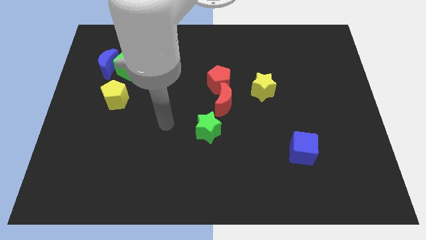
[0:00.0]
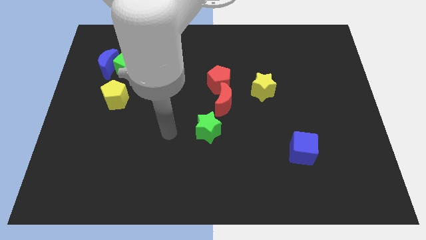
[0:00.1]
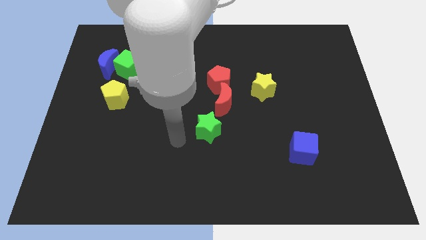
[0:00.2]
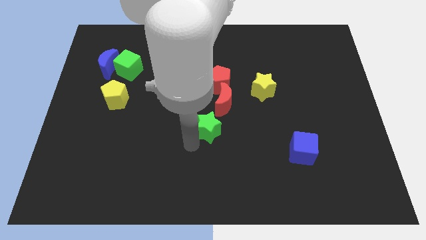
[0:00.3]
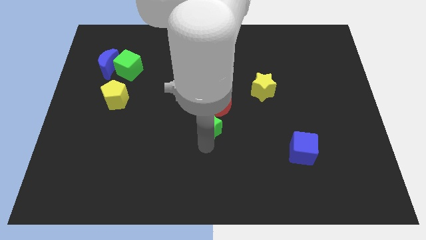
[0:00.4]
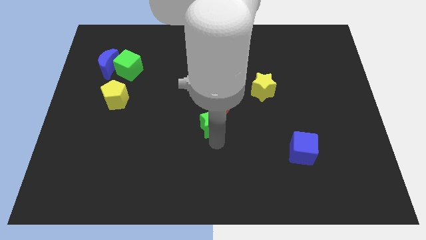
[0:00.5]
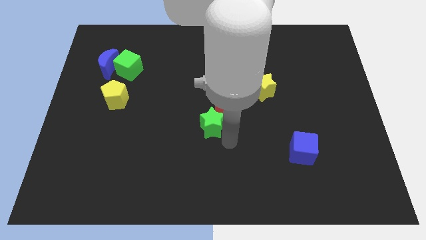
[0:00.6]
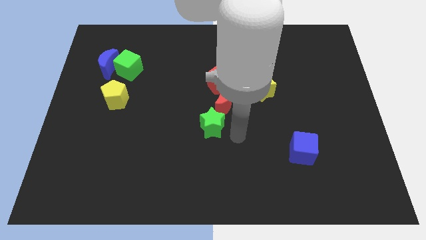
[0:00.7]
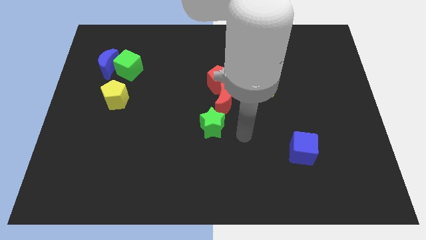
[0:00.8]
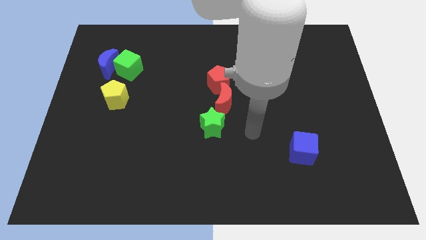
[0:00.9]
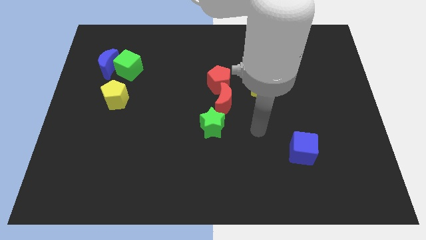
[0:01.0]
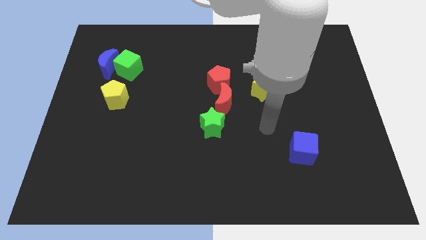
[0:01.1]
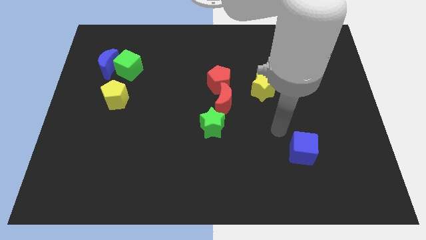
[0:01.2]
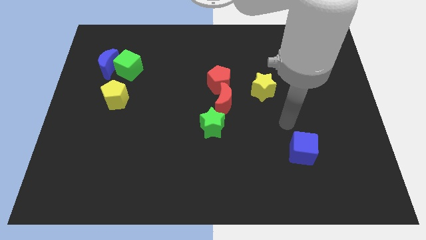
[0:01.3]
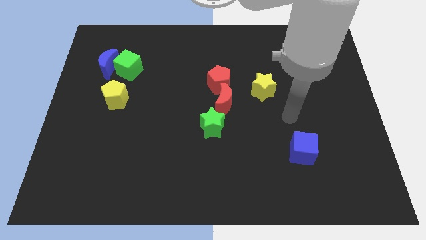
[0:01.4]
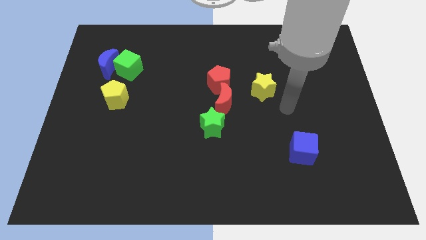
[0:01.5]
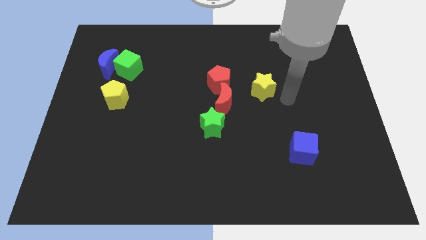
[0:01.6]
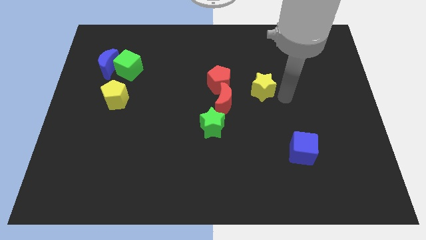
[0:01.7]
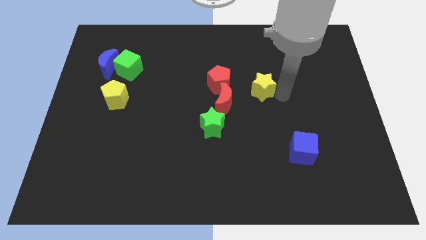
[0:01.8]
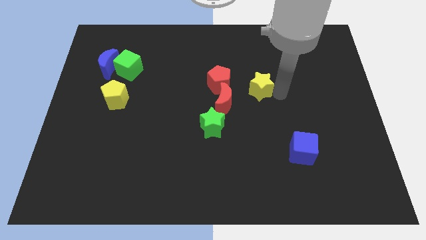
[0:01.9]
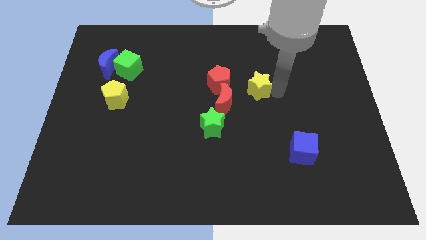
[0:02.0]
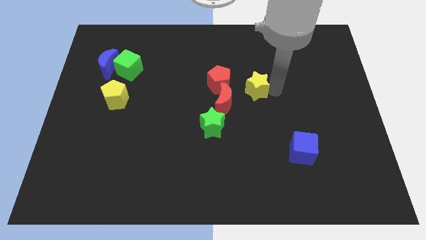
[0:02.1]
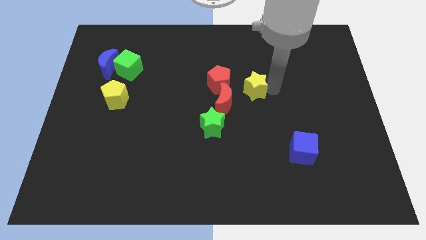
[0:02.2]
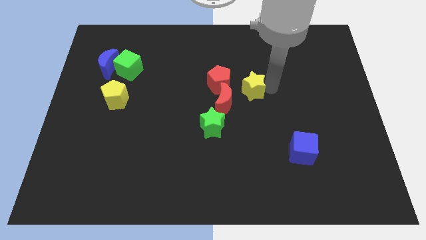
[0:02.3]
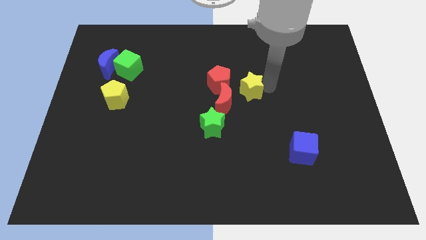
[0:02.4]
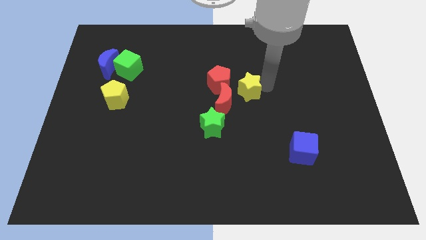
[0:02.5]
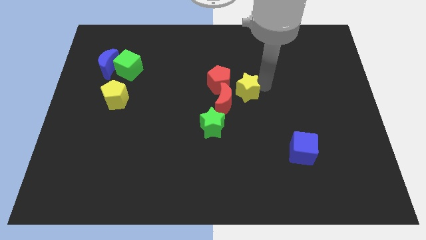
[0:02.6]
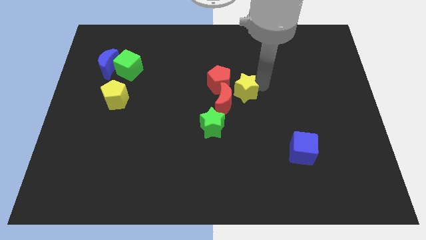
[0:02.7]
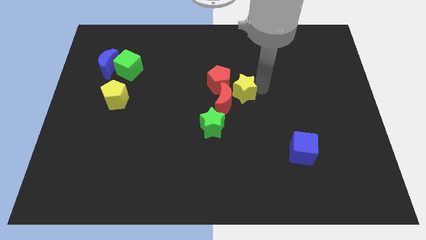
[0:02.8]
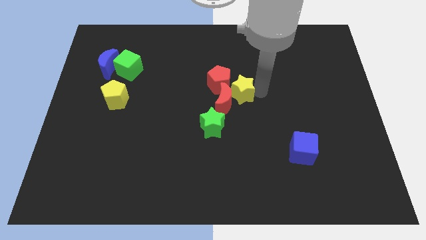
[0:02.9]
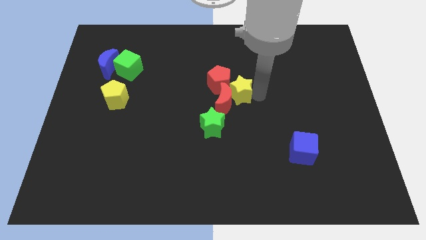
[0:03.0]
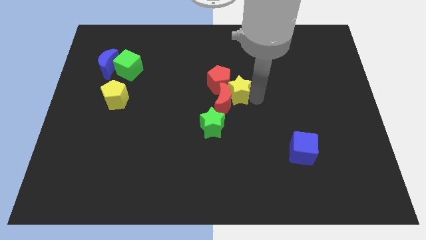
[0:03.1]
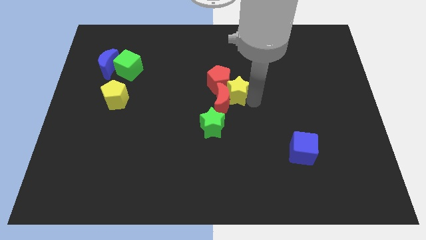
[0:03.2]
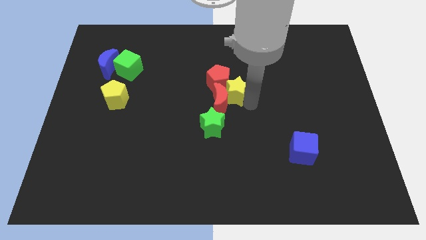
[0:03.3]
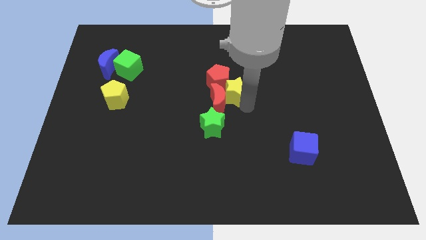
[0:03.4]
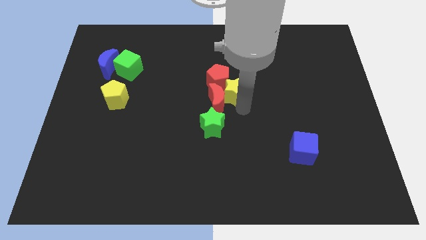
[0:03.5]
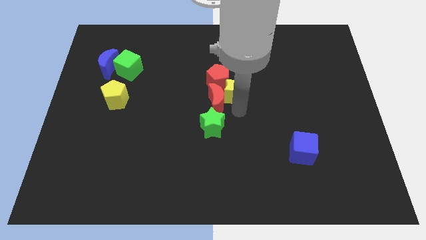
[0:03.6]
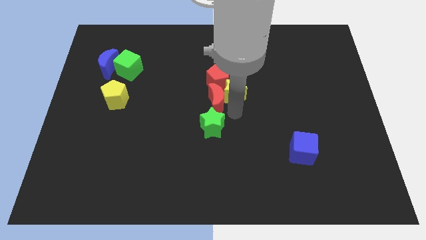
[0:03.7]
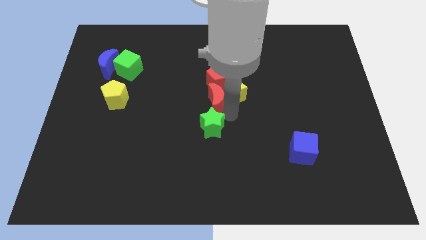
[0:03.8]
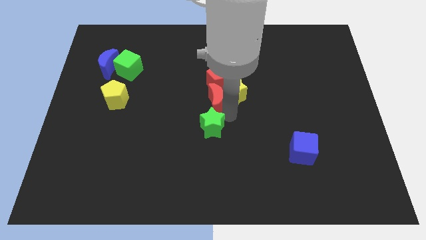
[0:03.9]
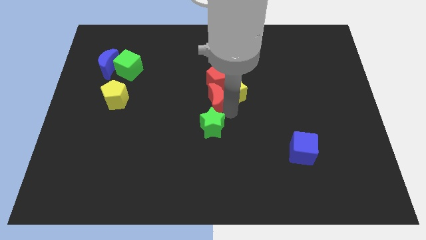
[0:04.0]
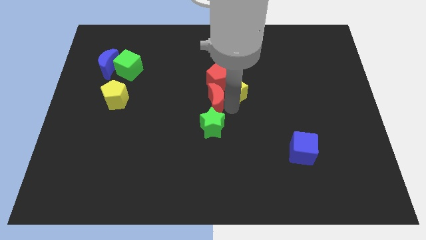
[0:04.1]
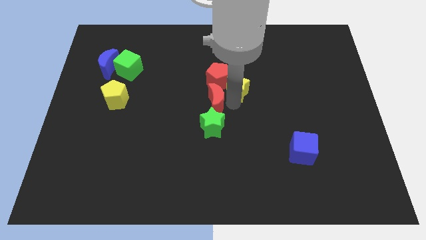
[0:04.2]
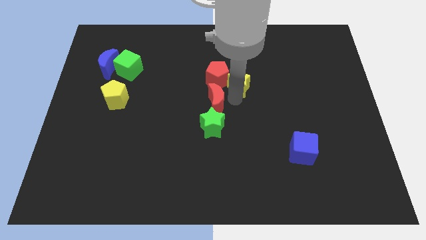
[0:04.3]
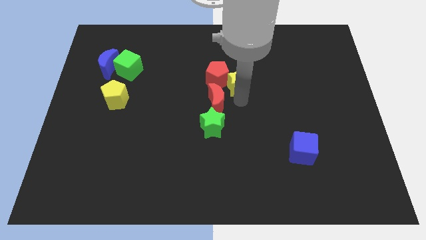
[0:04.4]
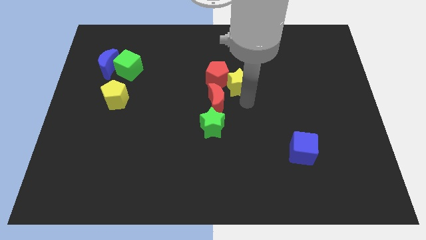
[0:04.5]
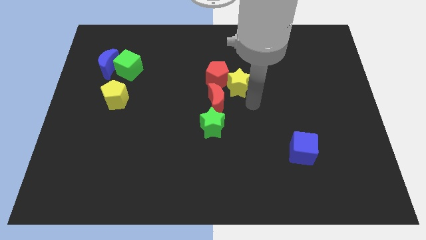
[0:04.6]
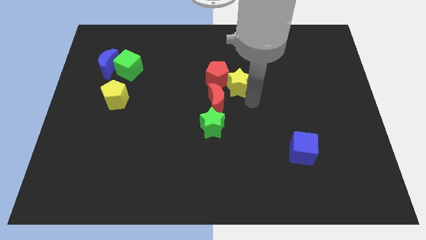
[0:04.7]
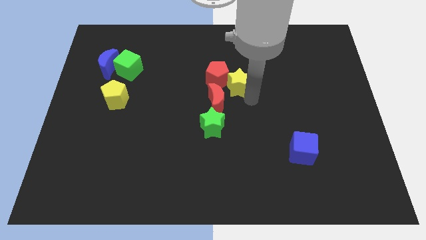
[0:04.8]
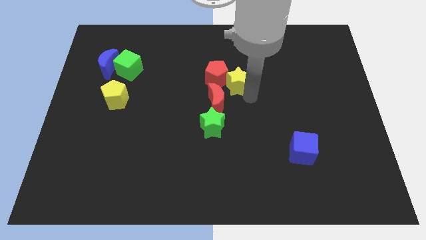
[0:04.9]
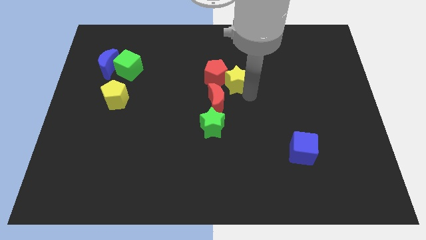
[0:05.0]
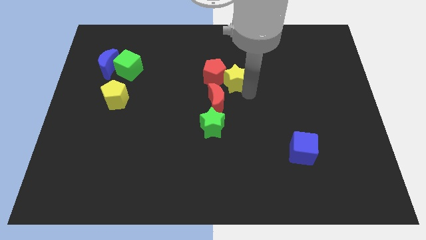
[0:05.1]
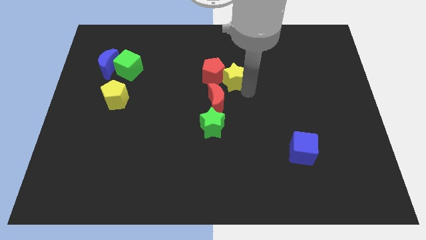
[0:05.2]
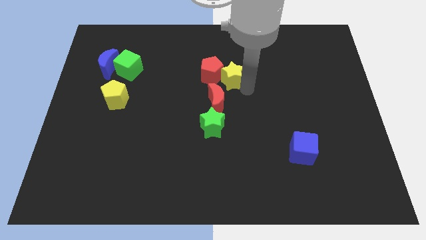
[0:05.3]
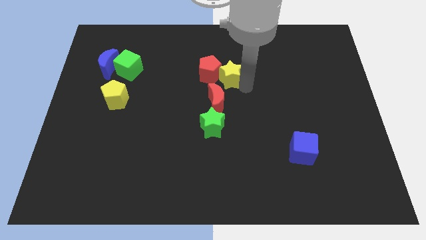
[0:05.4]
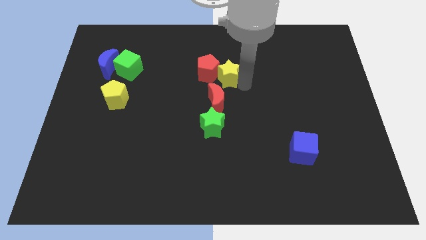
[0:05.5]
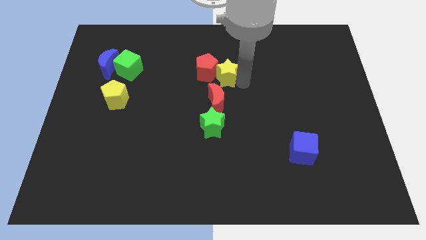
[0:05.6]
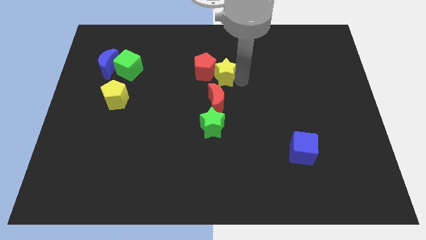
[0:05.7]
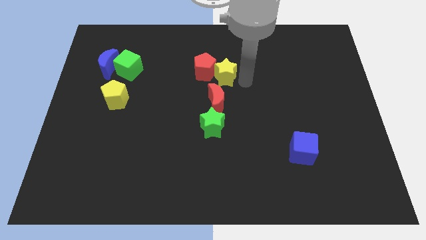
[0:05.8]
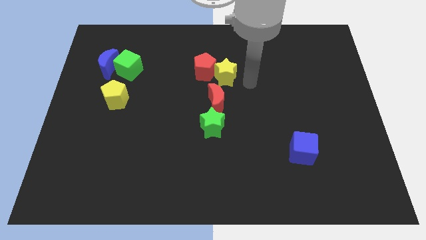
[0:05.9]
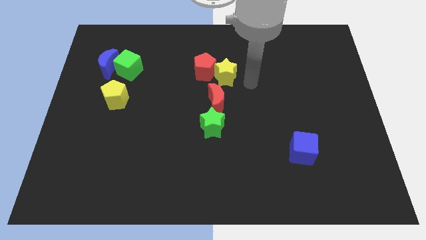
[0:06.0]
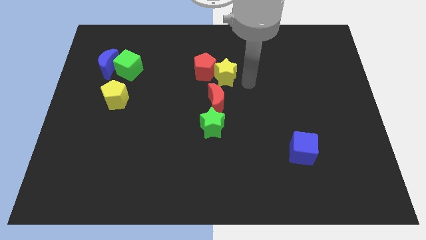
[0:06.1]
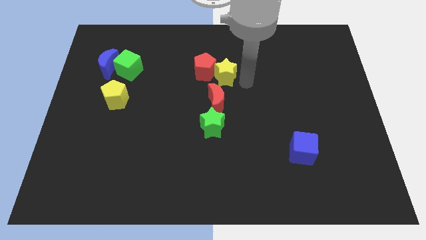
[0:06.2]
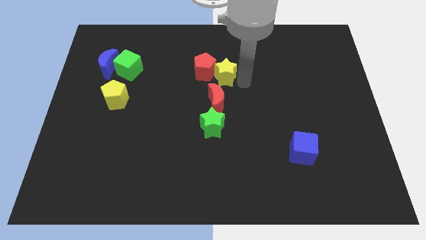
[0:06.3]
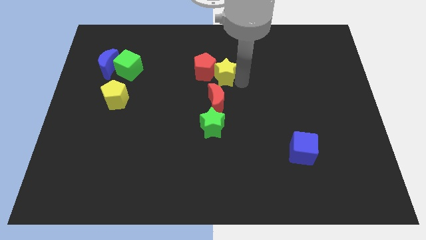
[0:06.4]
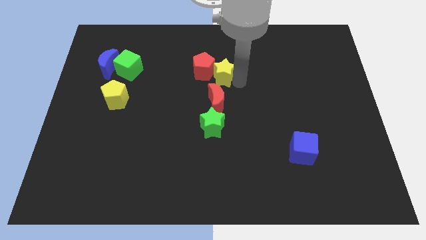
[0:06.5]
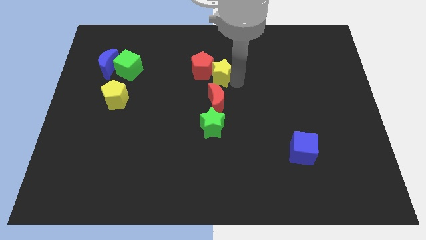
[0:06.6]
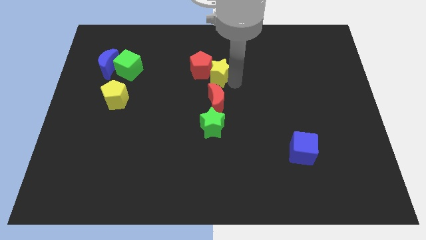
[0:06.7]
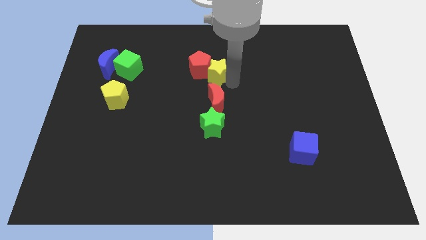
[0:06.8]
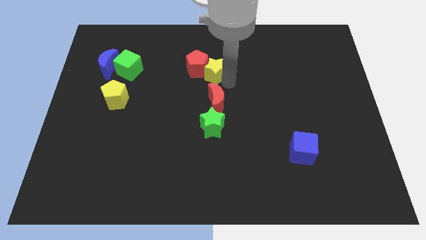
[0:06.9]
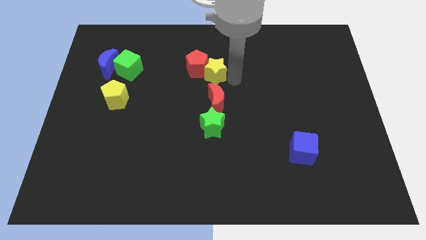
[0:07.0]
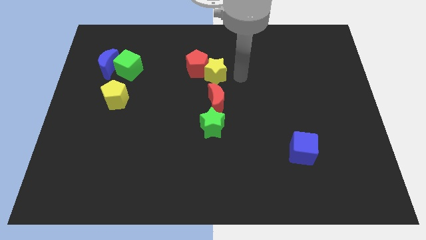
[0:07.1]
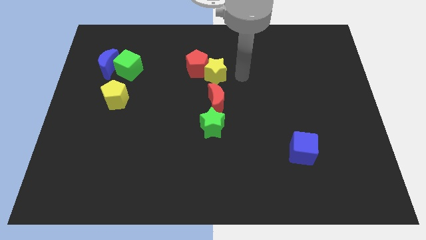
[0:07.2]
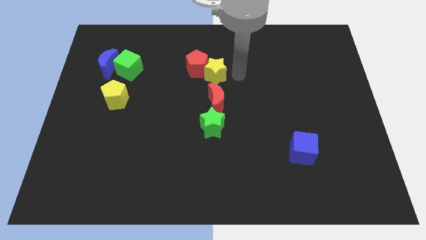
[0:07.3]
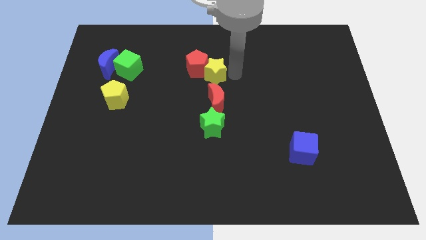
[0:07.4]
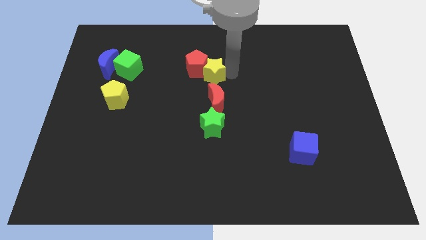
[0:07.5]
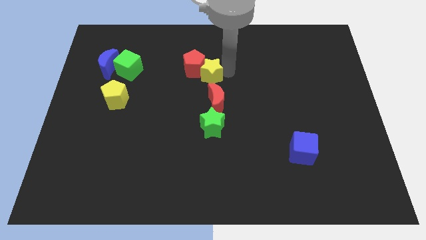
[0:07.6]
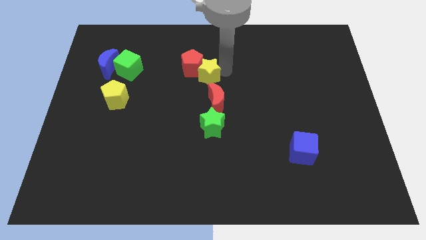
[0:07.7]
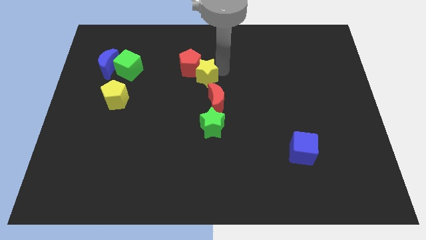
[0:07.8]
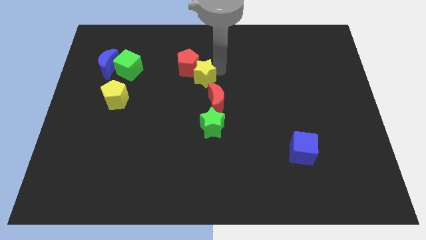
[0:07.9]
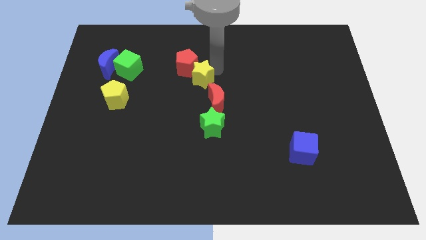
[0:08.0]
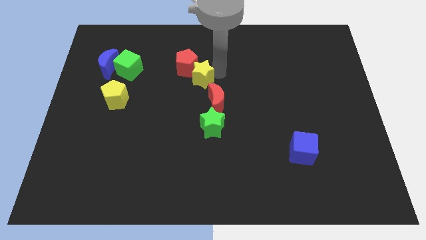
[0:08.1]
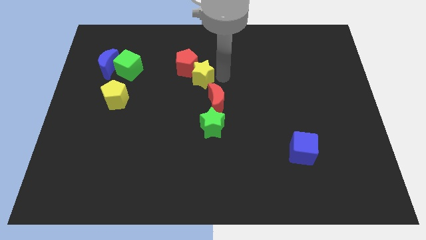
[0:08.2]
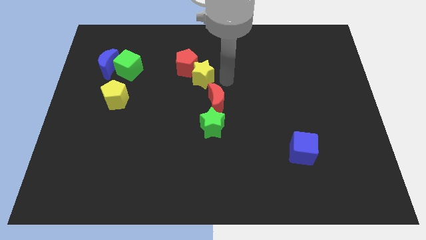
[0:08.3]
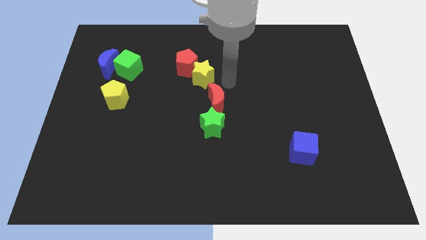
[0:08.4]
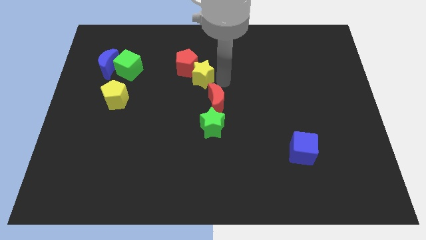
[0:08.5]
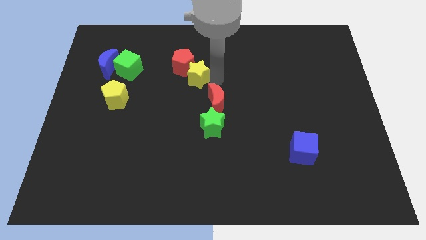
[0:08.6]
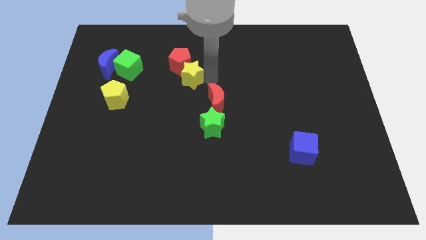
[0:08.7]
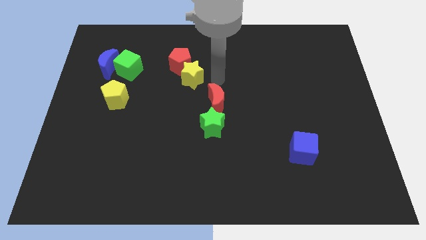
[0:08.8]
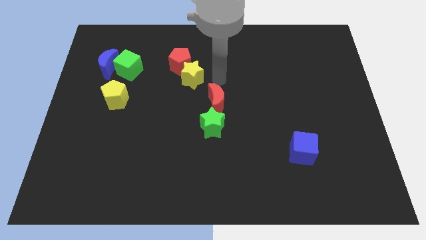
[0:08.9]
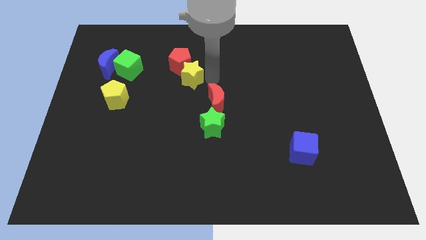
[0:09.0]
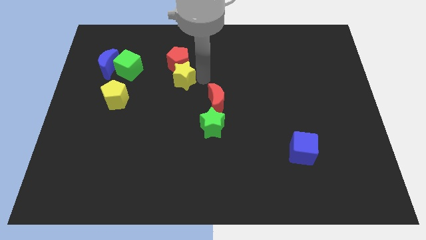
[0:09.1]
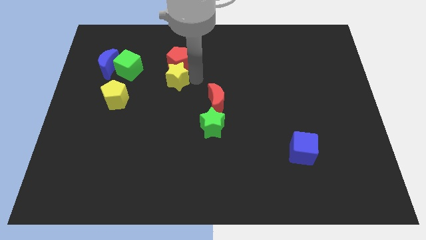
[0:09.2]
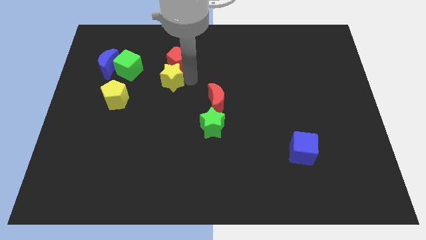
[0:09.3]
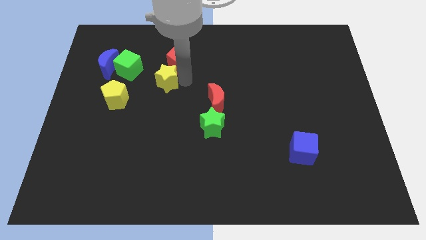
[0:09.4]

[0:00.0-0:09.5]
move the yellow star to the bottom right side of the green cube
